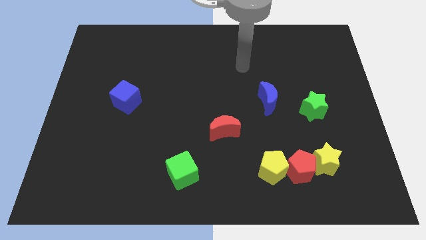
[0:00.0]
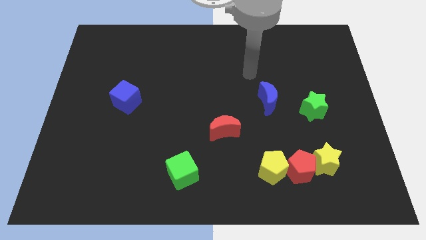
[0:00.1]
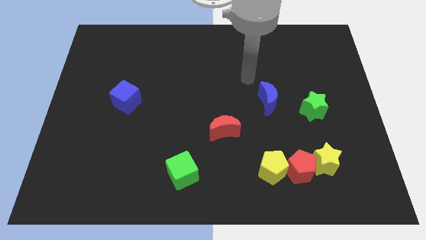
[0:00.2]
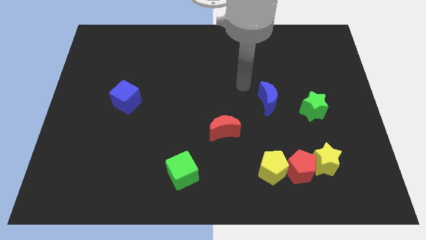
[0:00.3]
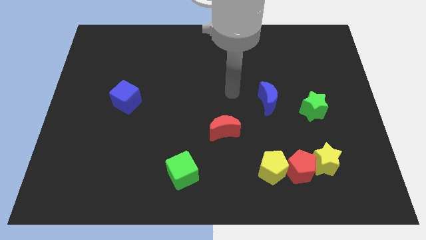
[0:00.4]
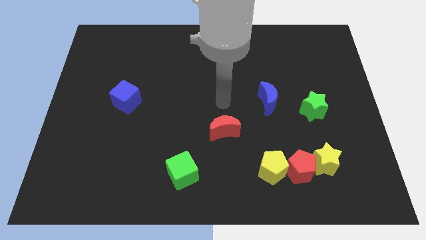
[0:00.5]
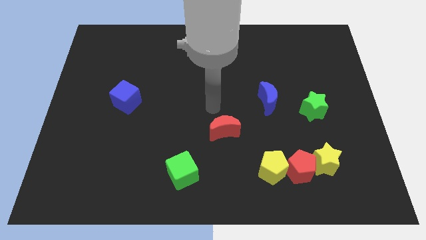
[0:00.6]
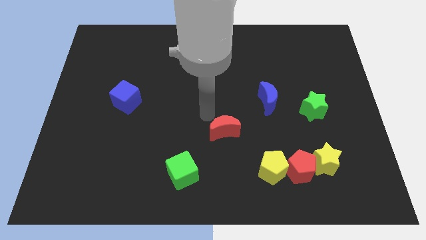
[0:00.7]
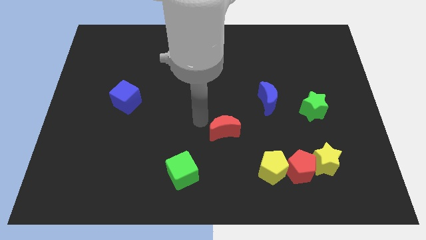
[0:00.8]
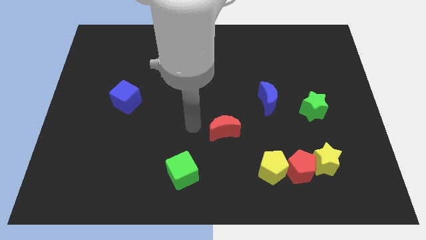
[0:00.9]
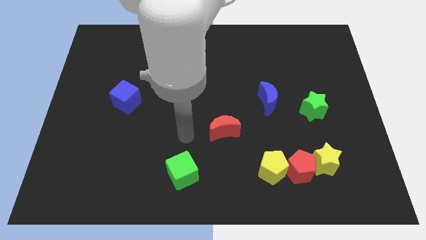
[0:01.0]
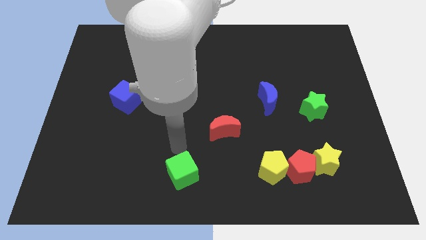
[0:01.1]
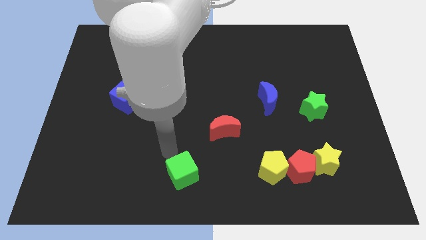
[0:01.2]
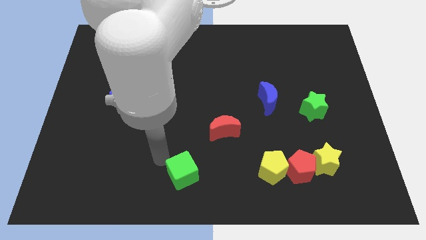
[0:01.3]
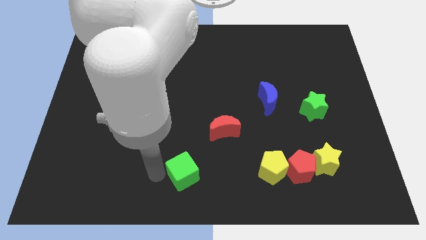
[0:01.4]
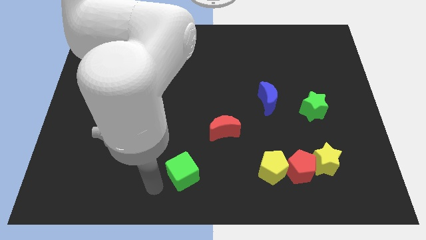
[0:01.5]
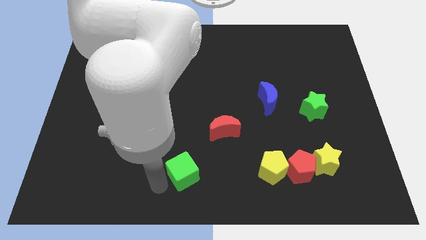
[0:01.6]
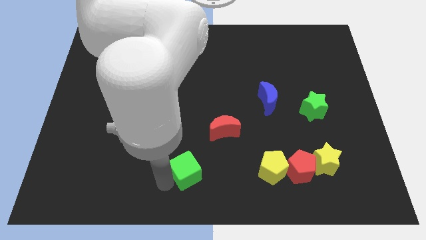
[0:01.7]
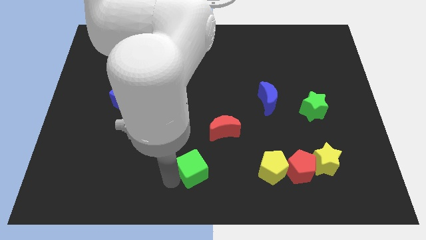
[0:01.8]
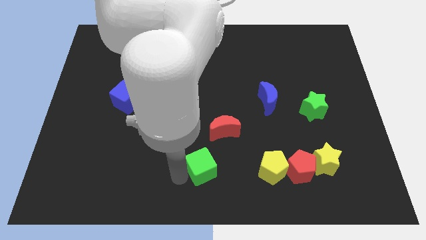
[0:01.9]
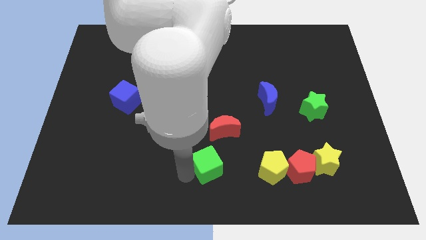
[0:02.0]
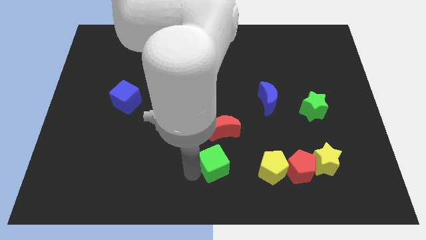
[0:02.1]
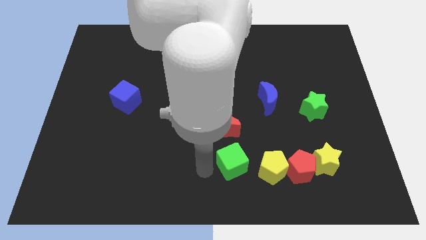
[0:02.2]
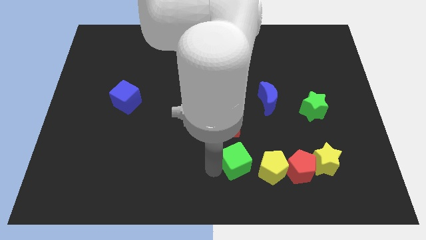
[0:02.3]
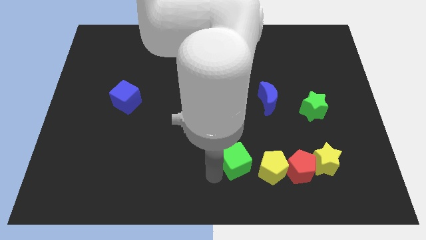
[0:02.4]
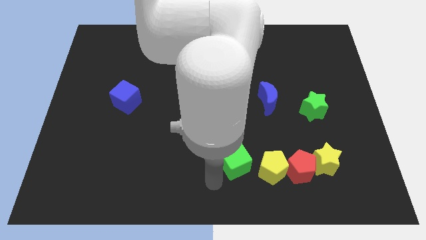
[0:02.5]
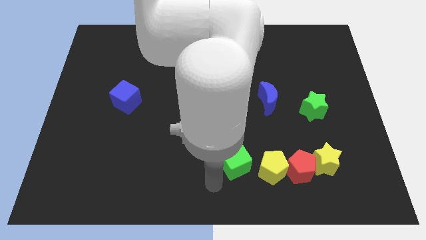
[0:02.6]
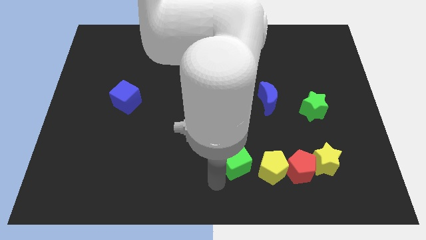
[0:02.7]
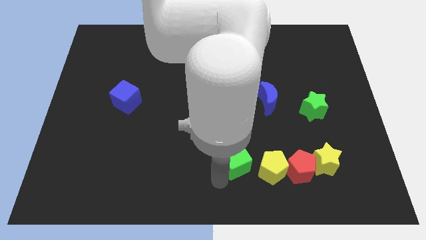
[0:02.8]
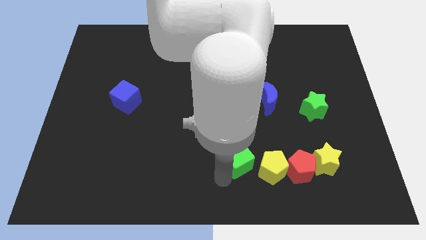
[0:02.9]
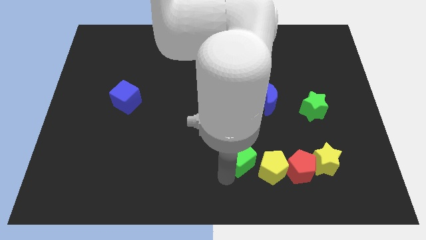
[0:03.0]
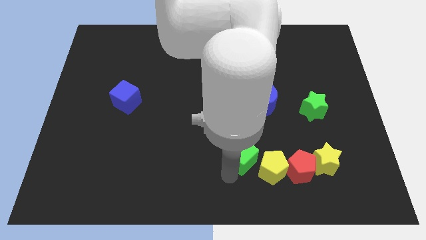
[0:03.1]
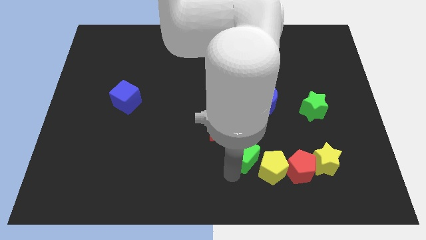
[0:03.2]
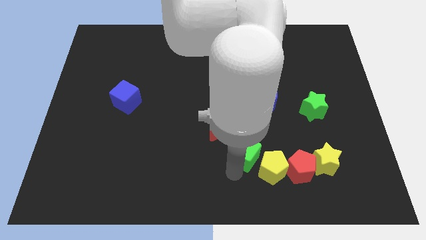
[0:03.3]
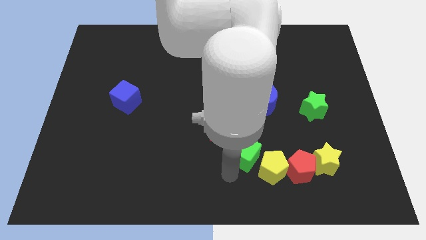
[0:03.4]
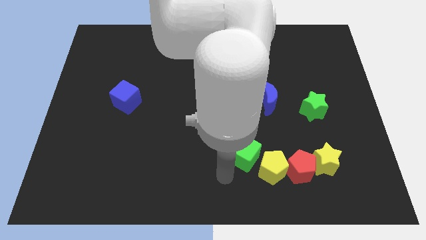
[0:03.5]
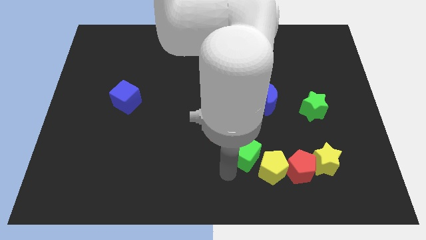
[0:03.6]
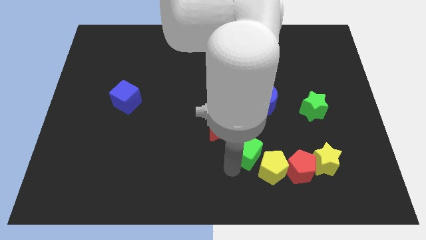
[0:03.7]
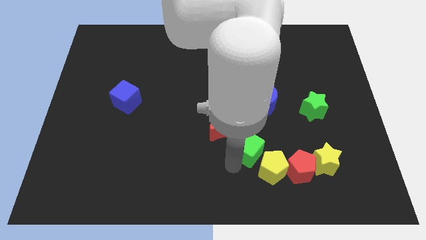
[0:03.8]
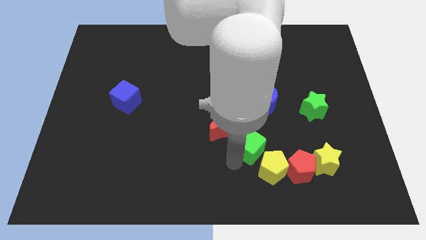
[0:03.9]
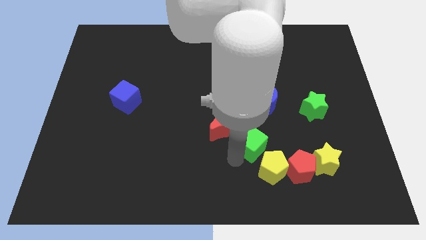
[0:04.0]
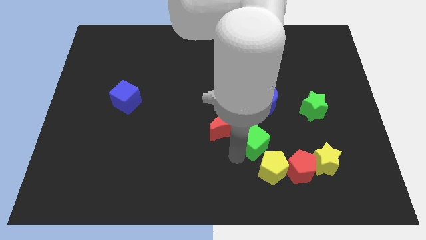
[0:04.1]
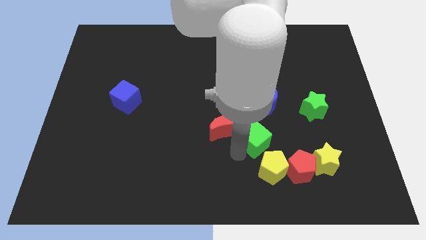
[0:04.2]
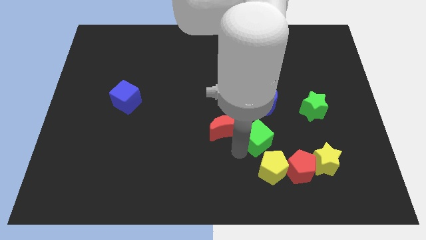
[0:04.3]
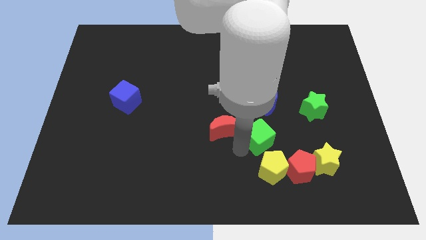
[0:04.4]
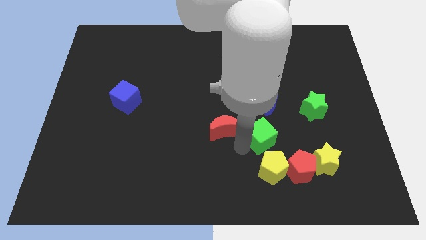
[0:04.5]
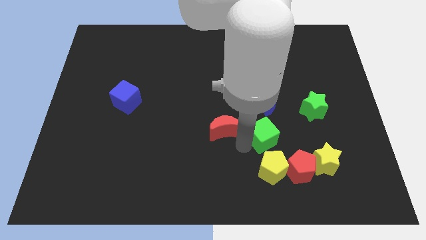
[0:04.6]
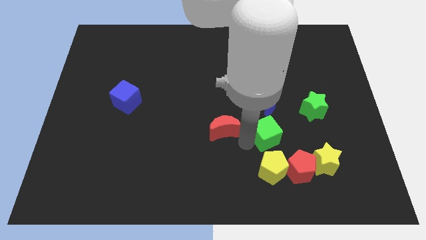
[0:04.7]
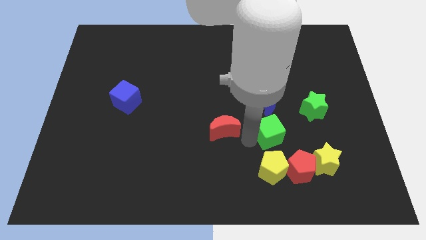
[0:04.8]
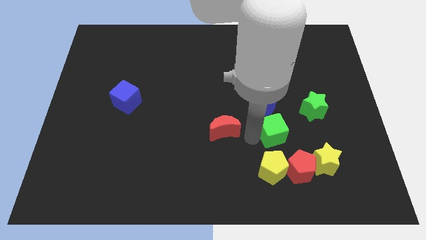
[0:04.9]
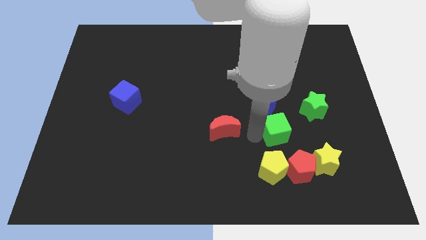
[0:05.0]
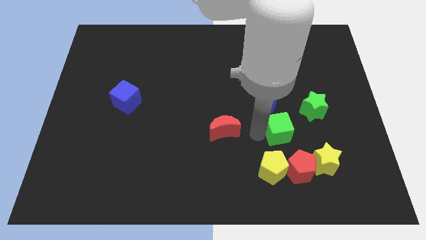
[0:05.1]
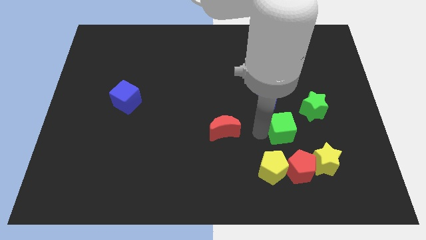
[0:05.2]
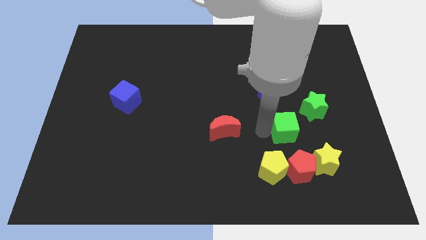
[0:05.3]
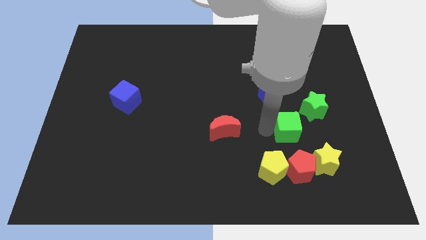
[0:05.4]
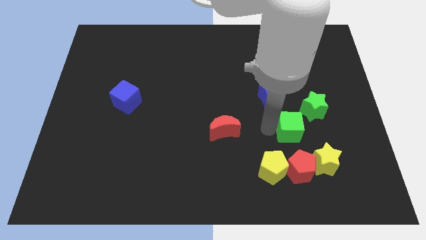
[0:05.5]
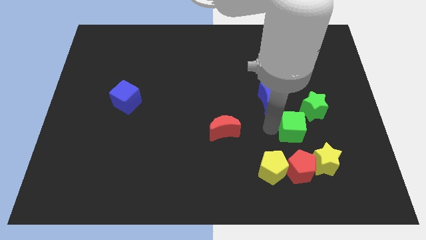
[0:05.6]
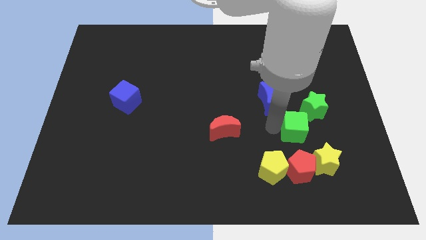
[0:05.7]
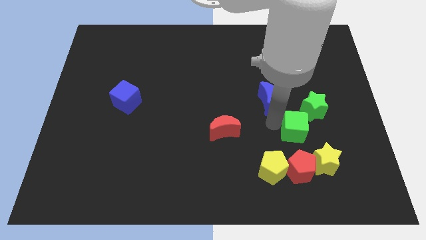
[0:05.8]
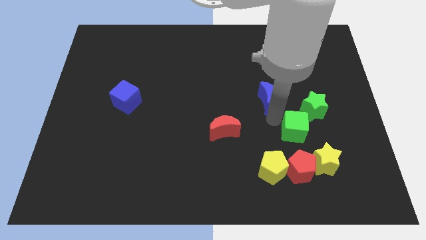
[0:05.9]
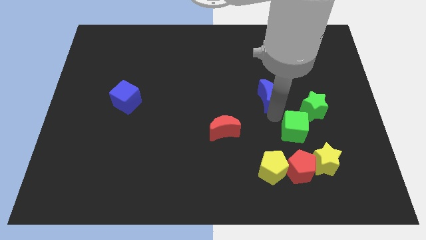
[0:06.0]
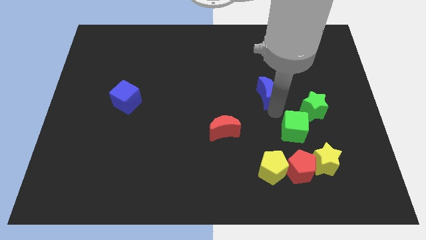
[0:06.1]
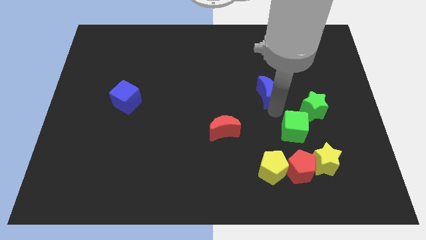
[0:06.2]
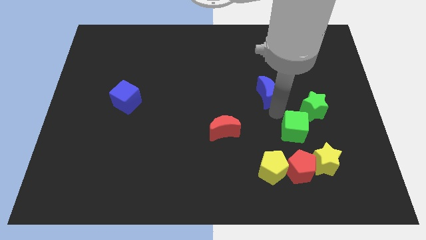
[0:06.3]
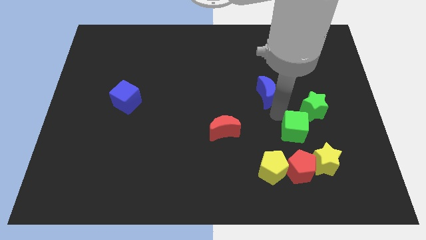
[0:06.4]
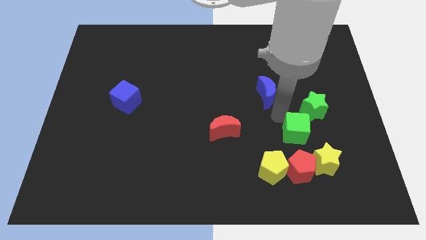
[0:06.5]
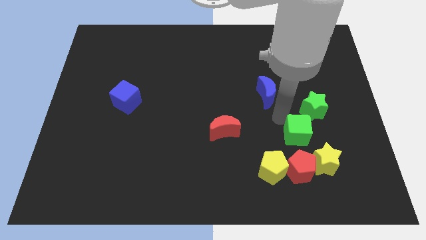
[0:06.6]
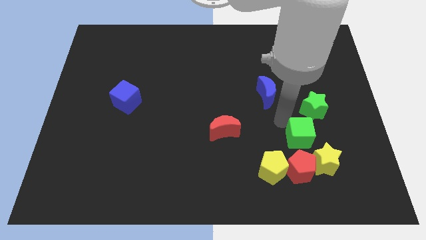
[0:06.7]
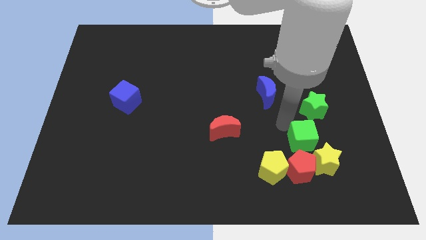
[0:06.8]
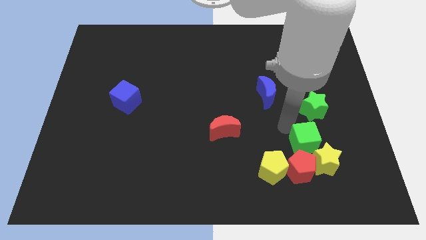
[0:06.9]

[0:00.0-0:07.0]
put the green cube to the yellow star
